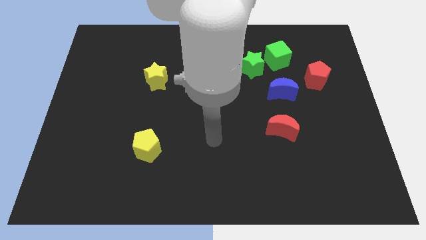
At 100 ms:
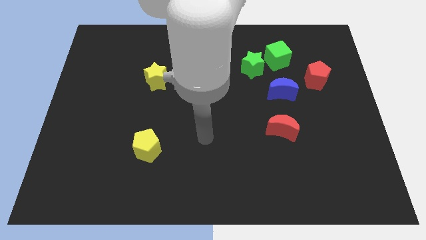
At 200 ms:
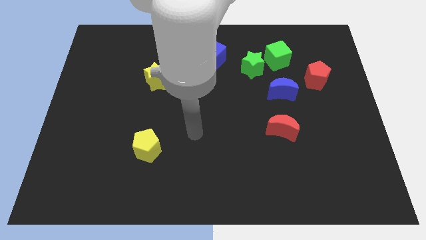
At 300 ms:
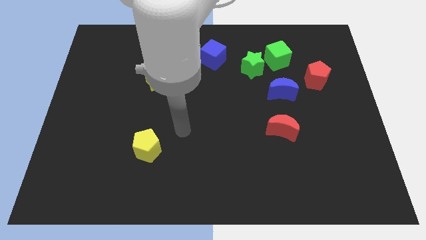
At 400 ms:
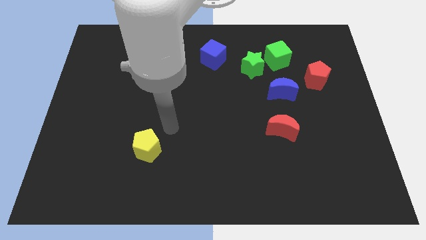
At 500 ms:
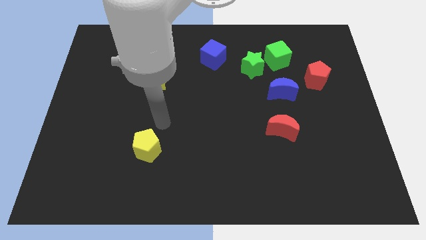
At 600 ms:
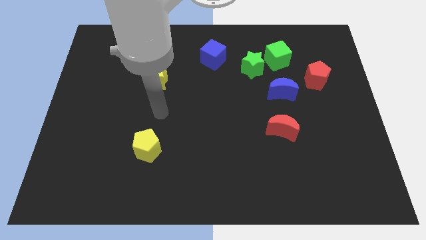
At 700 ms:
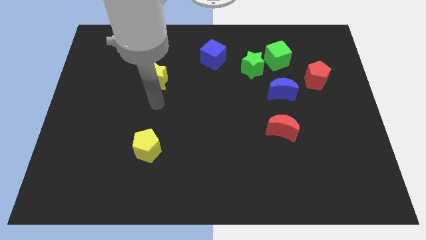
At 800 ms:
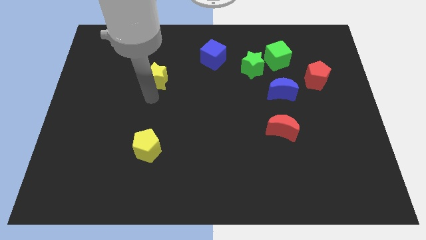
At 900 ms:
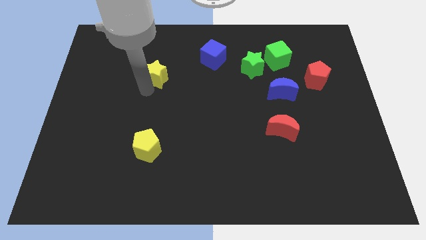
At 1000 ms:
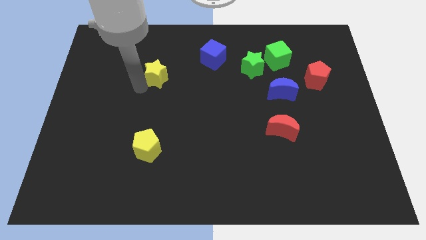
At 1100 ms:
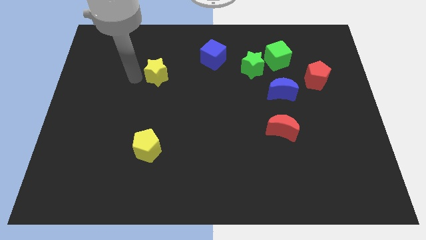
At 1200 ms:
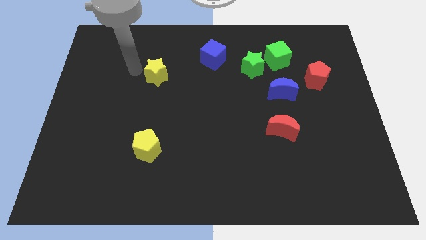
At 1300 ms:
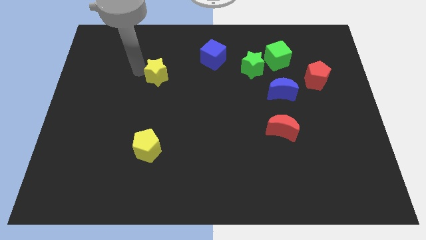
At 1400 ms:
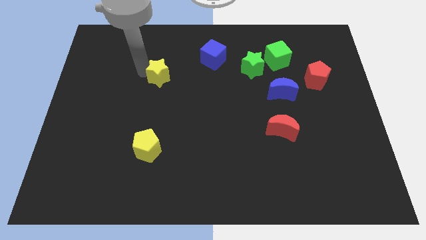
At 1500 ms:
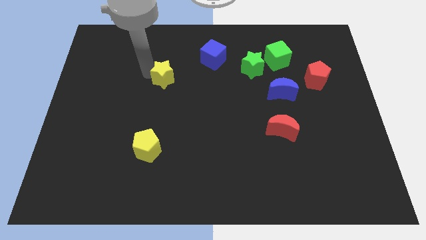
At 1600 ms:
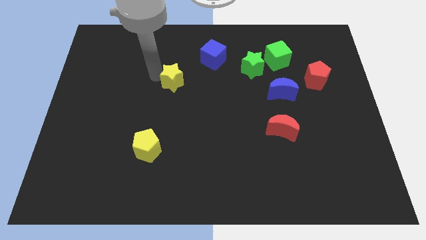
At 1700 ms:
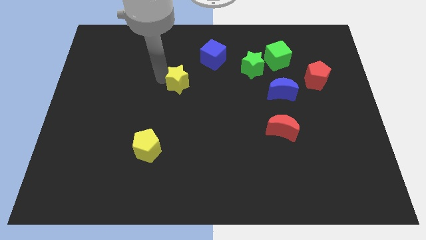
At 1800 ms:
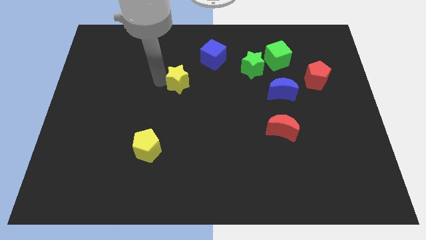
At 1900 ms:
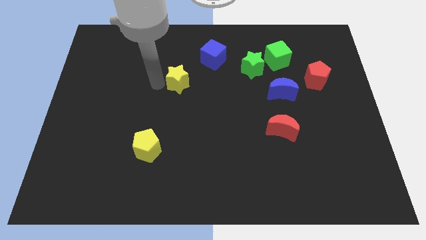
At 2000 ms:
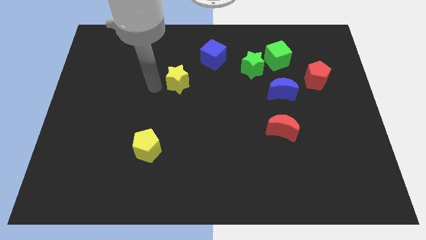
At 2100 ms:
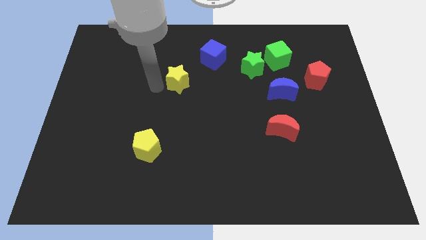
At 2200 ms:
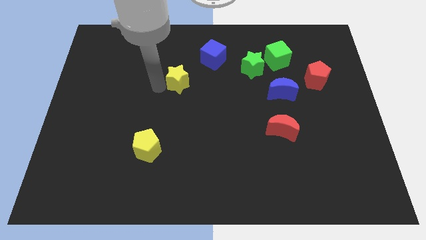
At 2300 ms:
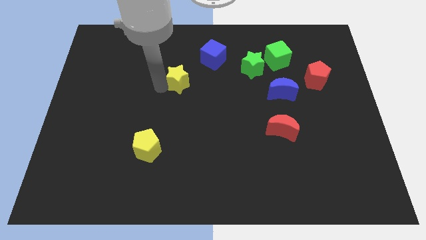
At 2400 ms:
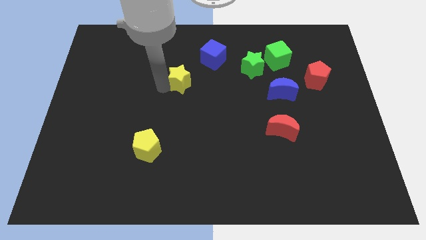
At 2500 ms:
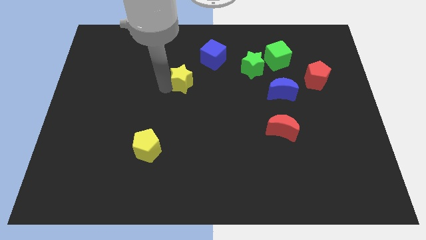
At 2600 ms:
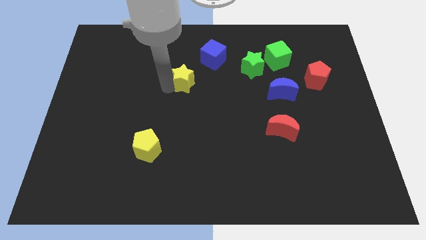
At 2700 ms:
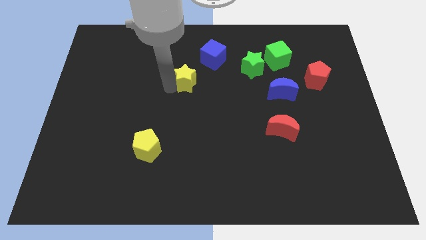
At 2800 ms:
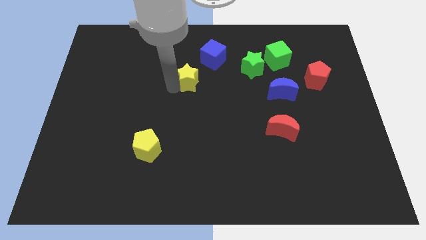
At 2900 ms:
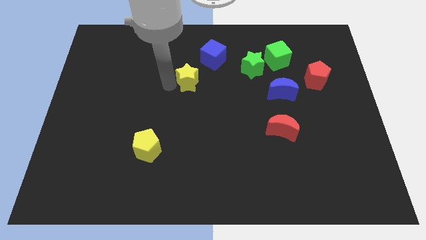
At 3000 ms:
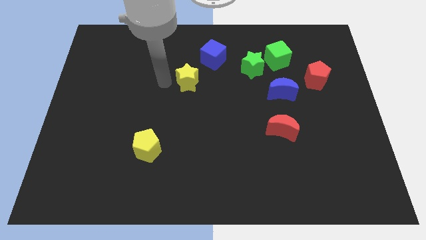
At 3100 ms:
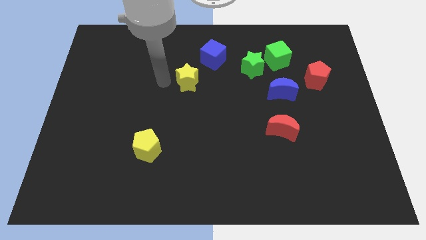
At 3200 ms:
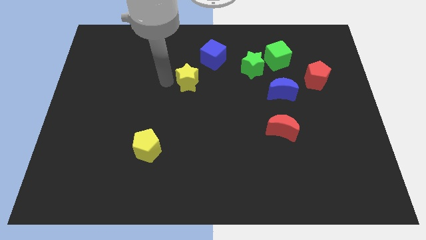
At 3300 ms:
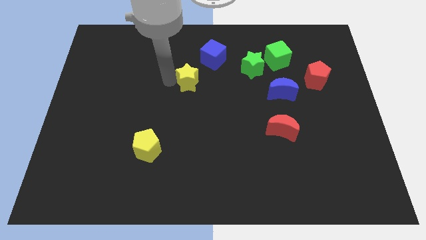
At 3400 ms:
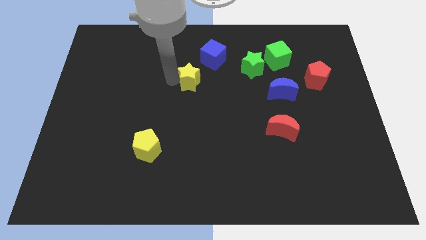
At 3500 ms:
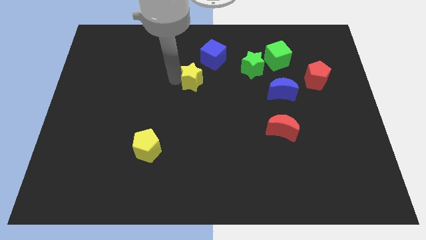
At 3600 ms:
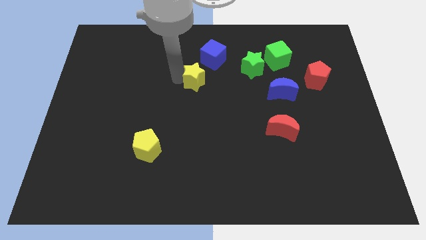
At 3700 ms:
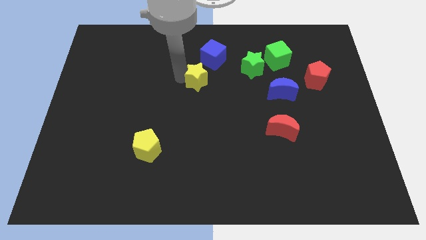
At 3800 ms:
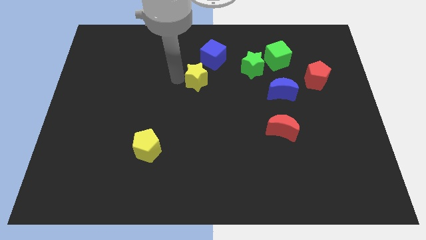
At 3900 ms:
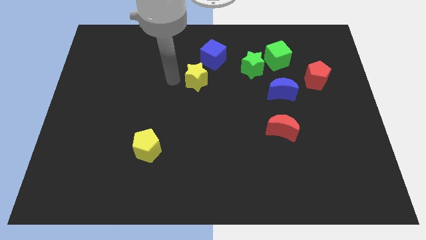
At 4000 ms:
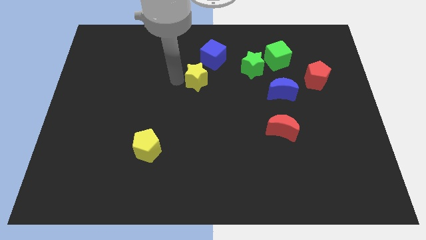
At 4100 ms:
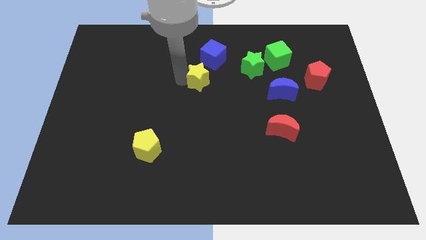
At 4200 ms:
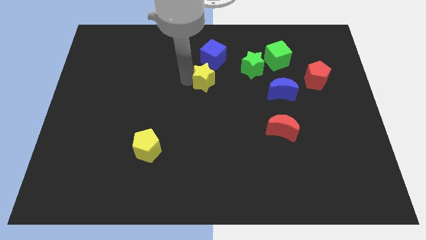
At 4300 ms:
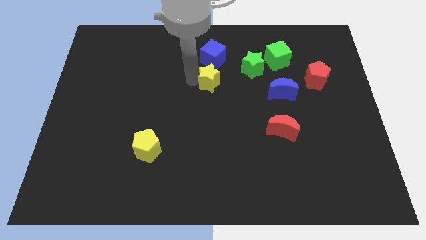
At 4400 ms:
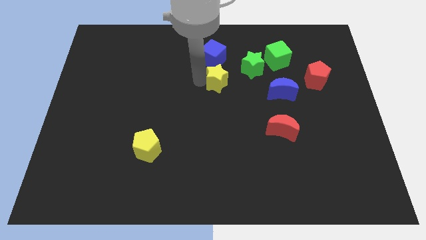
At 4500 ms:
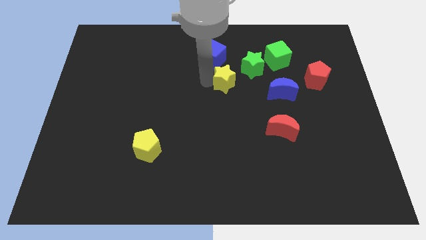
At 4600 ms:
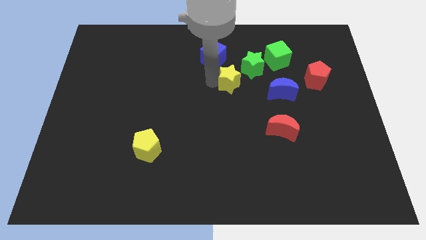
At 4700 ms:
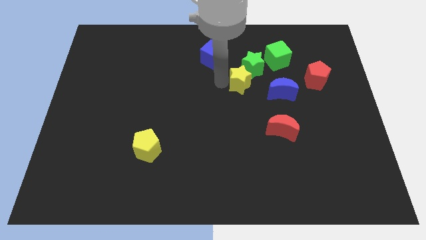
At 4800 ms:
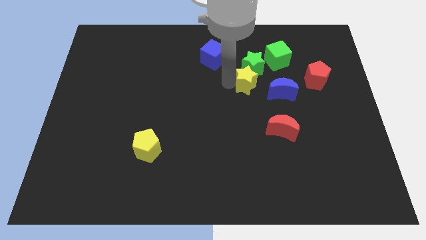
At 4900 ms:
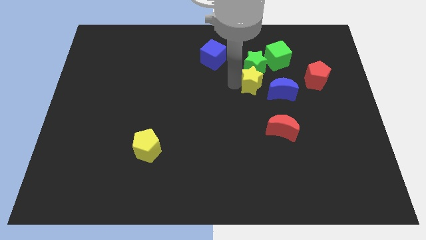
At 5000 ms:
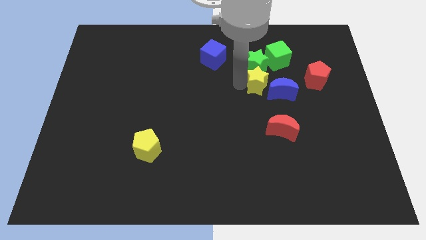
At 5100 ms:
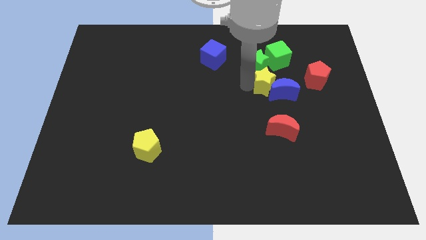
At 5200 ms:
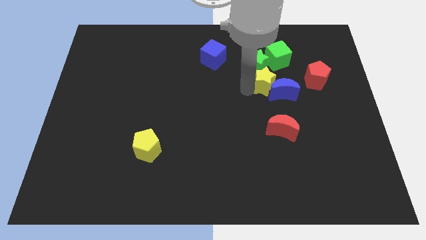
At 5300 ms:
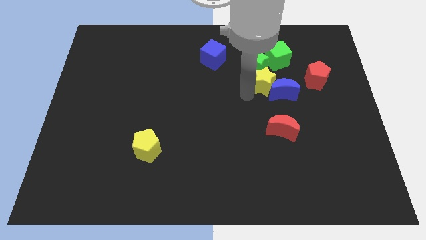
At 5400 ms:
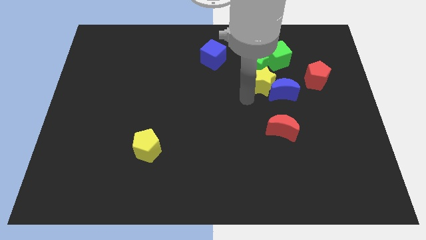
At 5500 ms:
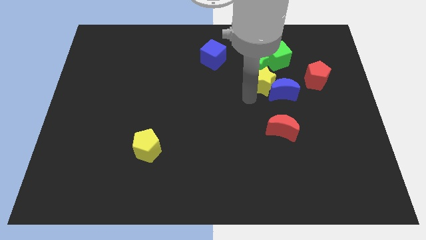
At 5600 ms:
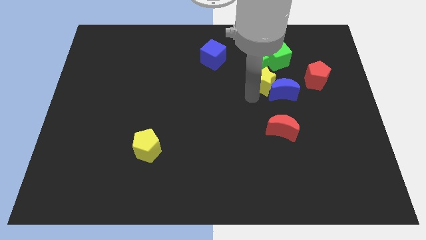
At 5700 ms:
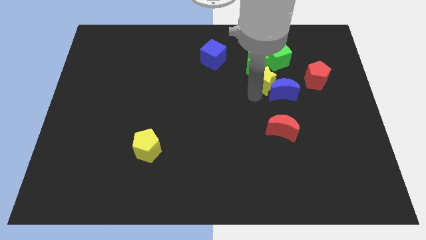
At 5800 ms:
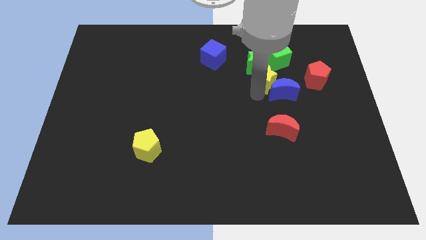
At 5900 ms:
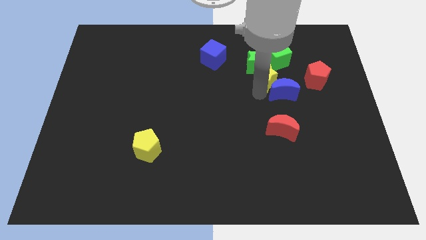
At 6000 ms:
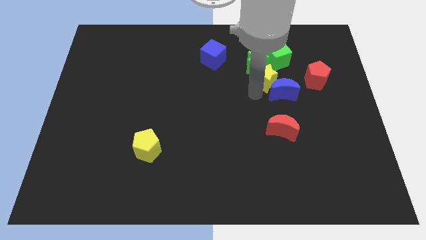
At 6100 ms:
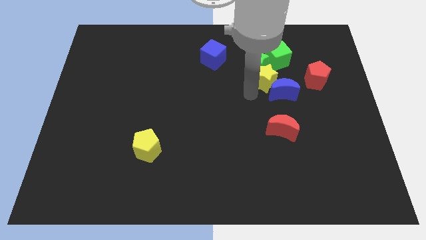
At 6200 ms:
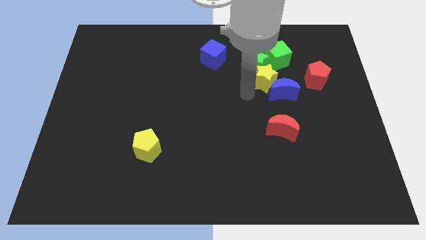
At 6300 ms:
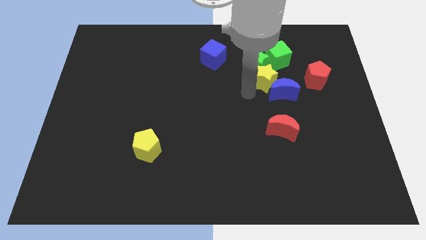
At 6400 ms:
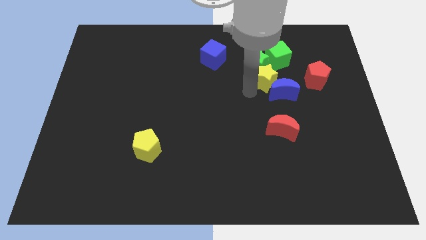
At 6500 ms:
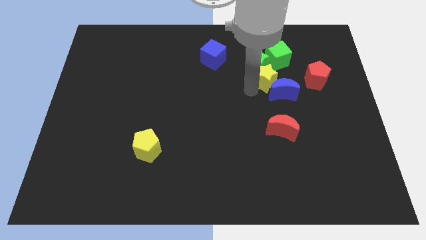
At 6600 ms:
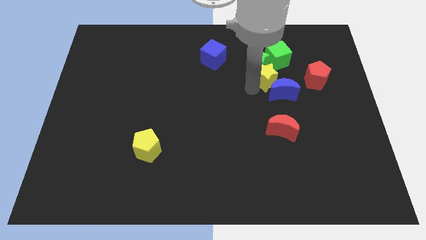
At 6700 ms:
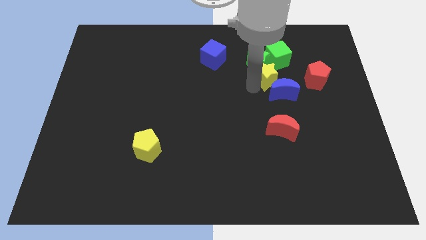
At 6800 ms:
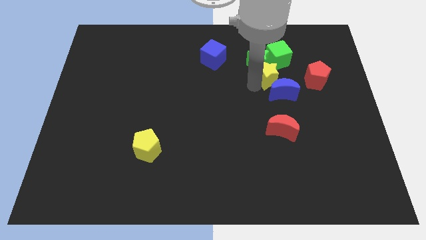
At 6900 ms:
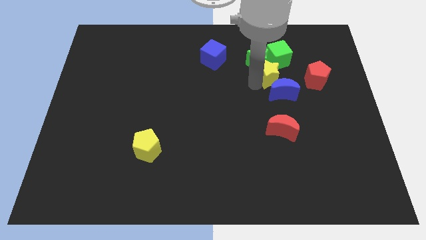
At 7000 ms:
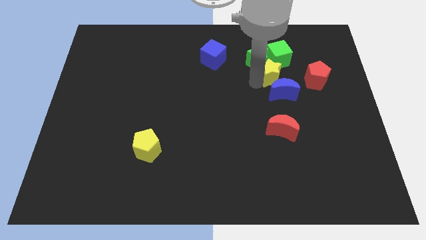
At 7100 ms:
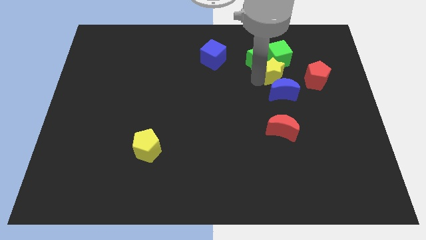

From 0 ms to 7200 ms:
move the yellow star just right of the green star
